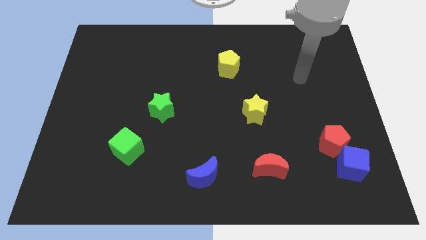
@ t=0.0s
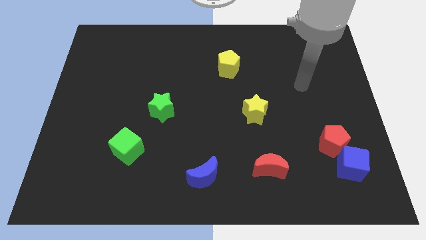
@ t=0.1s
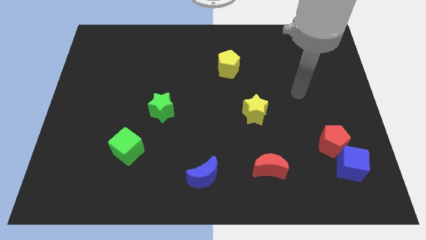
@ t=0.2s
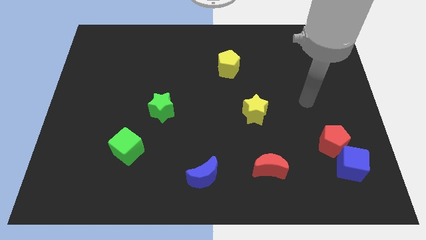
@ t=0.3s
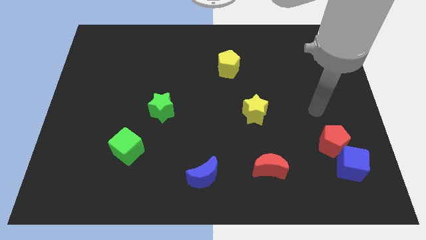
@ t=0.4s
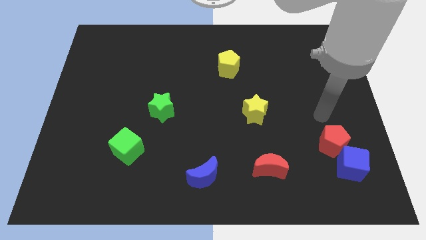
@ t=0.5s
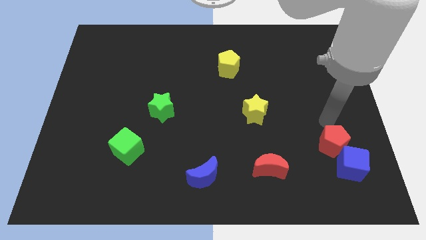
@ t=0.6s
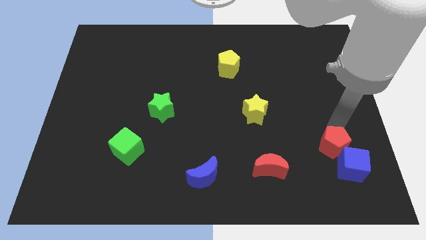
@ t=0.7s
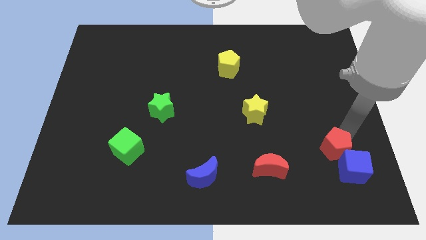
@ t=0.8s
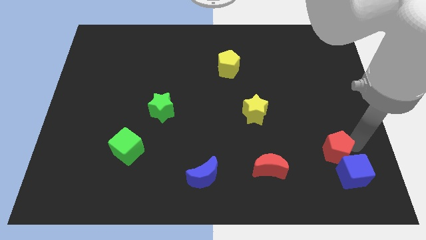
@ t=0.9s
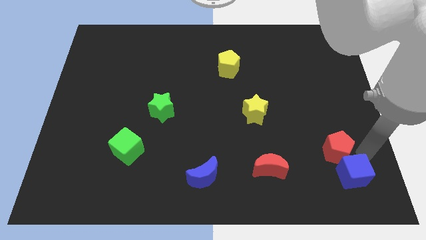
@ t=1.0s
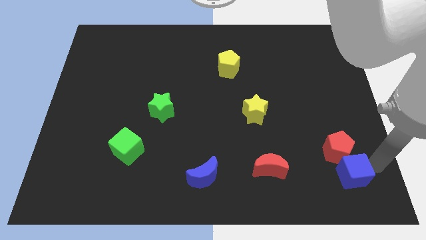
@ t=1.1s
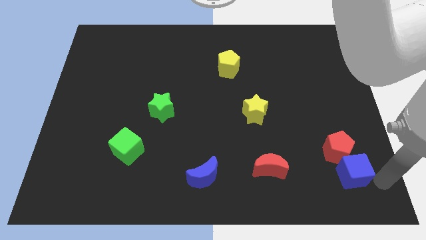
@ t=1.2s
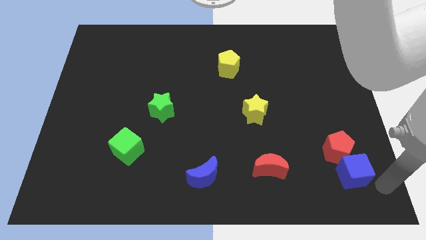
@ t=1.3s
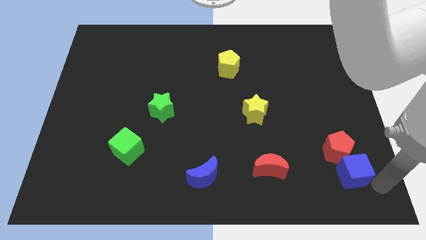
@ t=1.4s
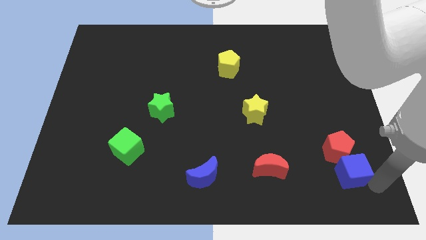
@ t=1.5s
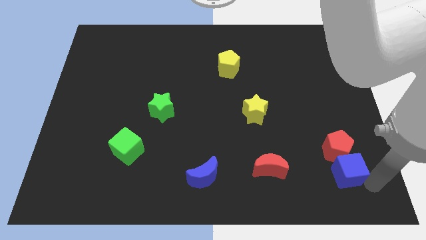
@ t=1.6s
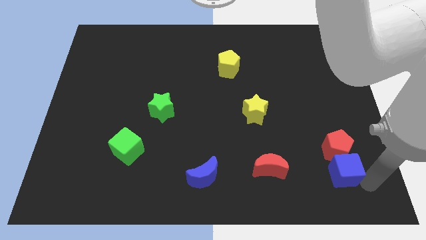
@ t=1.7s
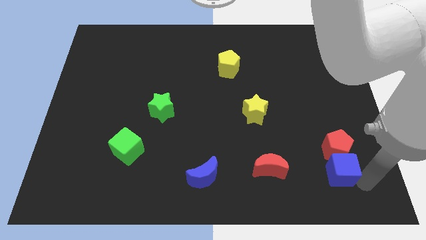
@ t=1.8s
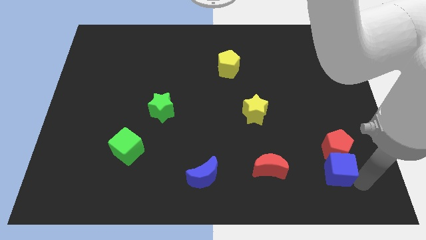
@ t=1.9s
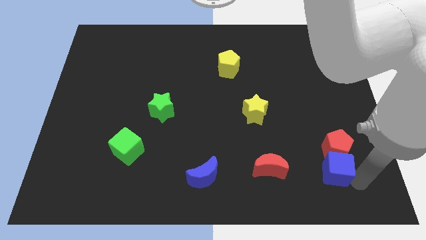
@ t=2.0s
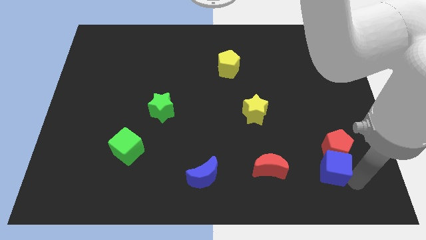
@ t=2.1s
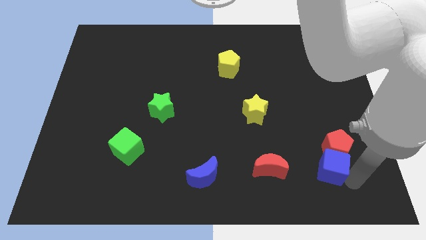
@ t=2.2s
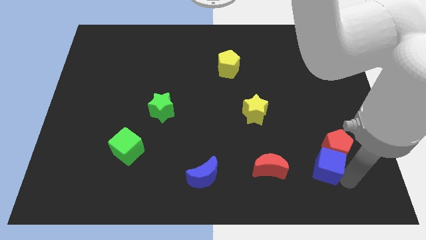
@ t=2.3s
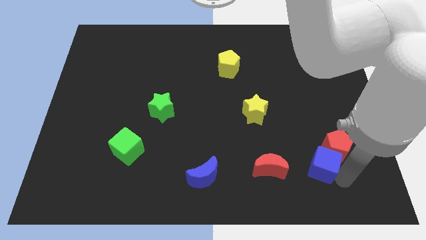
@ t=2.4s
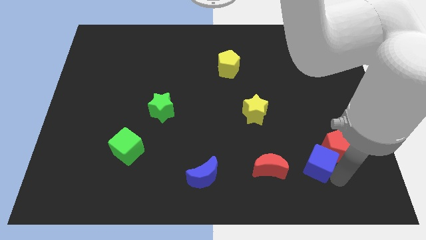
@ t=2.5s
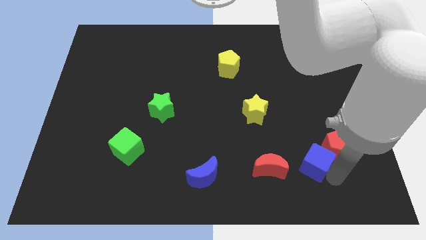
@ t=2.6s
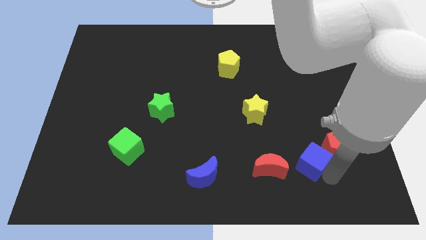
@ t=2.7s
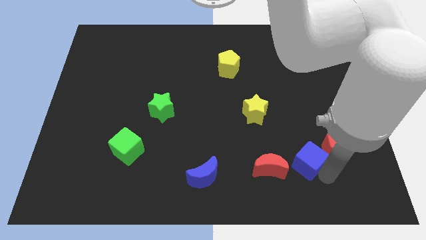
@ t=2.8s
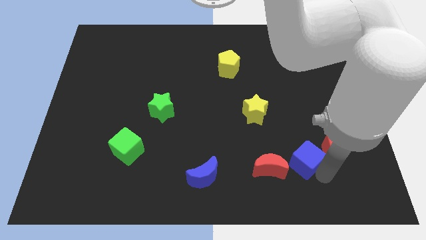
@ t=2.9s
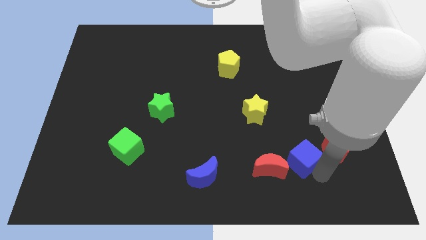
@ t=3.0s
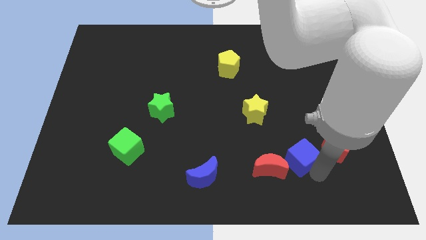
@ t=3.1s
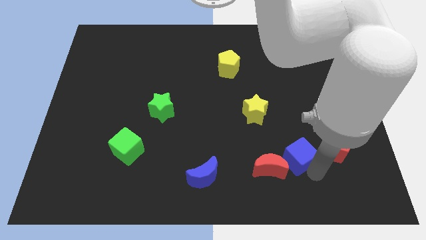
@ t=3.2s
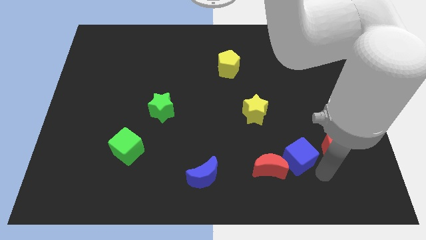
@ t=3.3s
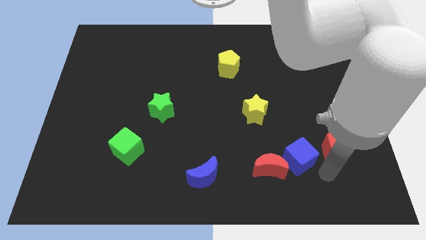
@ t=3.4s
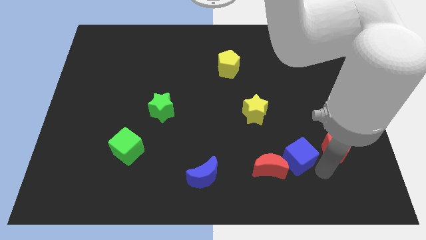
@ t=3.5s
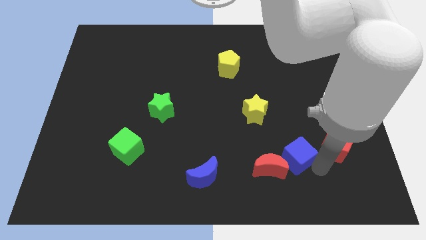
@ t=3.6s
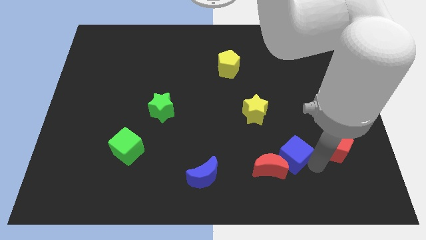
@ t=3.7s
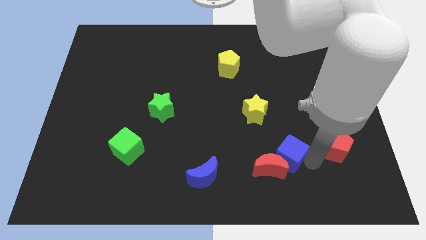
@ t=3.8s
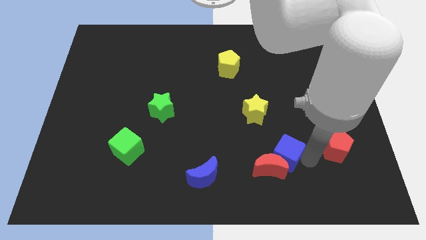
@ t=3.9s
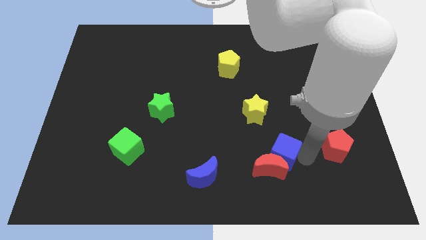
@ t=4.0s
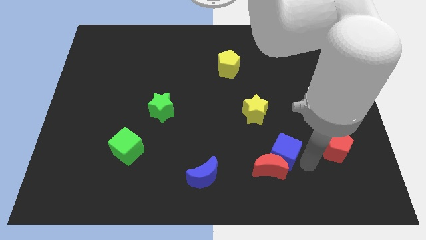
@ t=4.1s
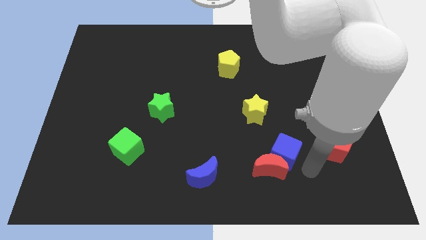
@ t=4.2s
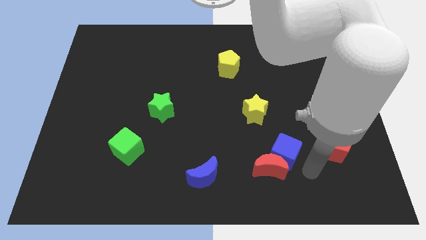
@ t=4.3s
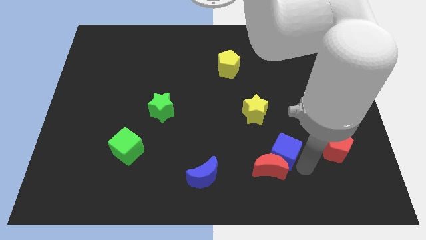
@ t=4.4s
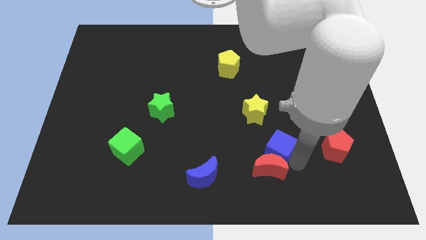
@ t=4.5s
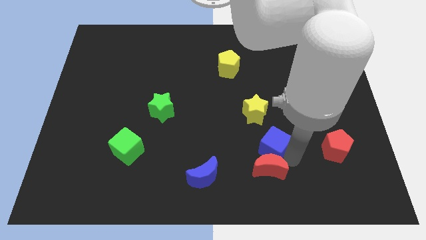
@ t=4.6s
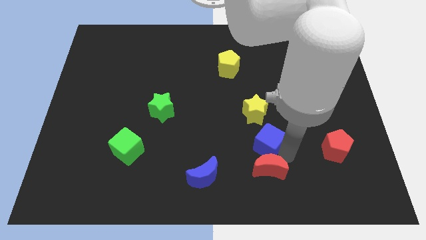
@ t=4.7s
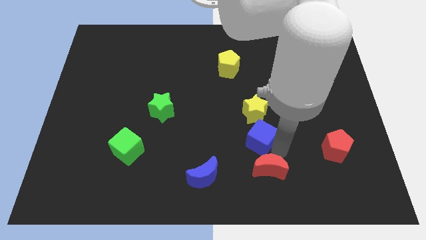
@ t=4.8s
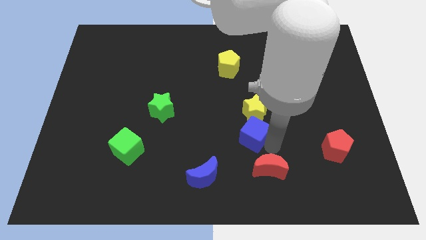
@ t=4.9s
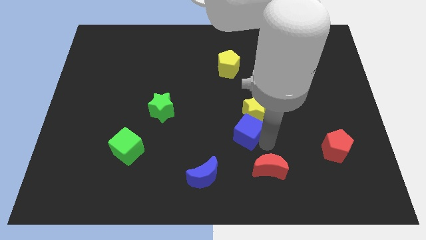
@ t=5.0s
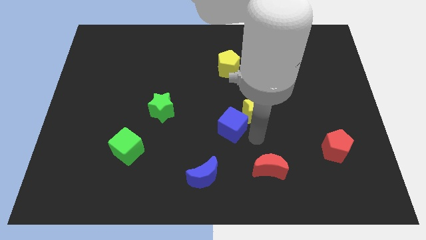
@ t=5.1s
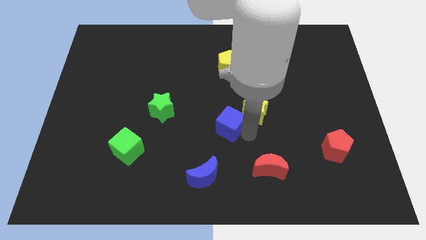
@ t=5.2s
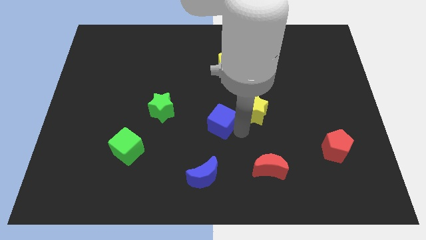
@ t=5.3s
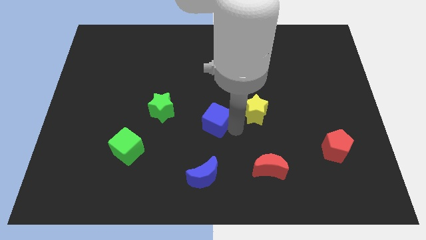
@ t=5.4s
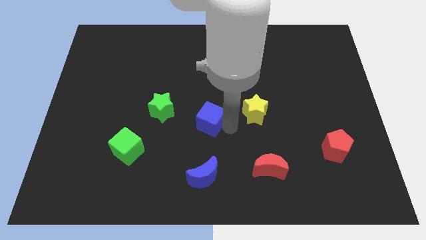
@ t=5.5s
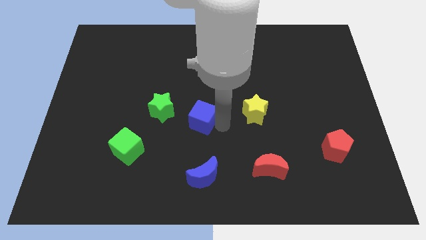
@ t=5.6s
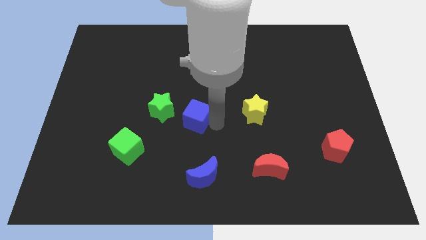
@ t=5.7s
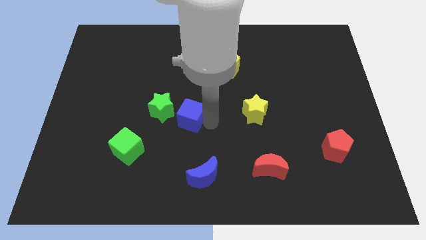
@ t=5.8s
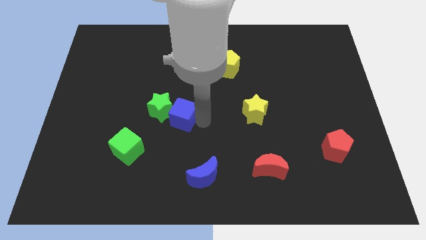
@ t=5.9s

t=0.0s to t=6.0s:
put the blue cube next to the green star

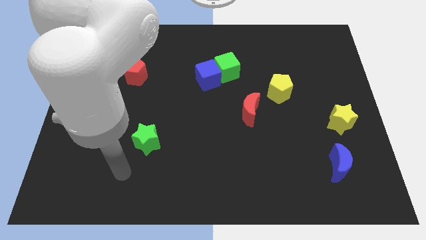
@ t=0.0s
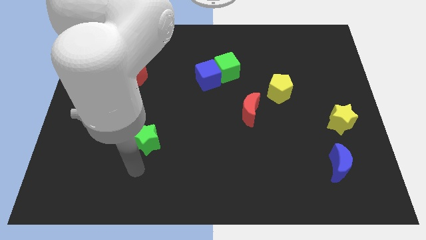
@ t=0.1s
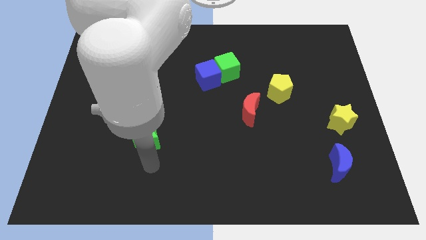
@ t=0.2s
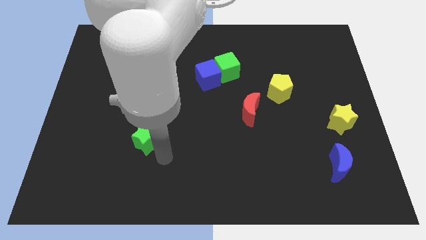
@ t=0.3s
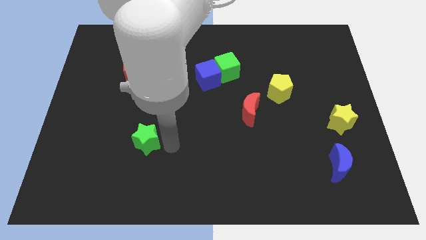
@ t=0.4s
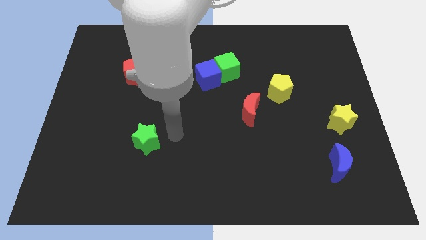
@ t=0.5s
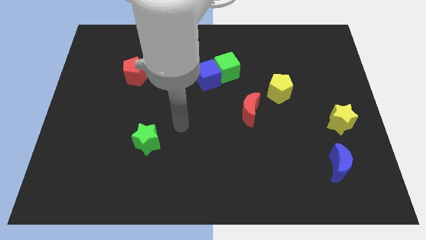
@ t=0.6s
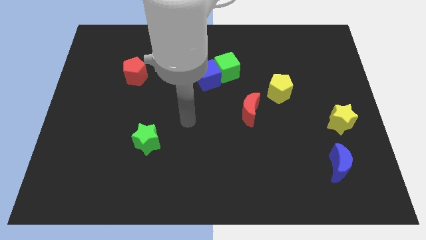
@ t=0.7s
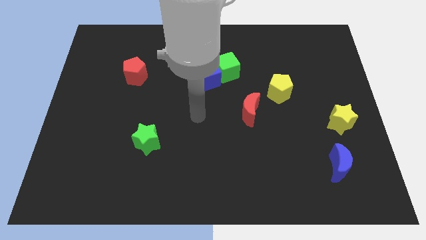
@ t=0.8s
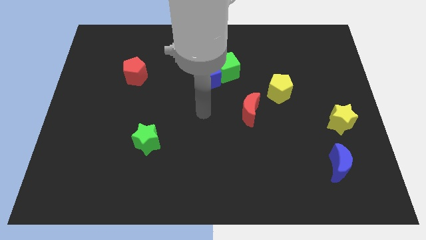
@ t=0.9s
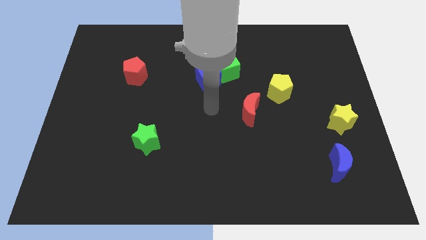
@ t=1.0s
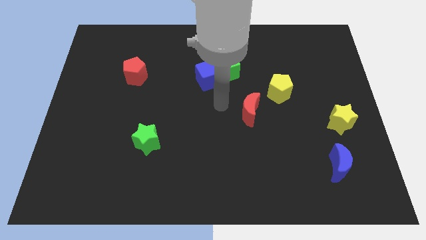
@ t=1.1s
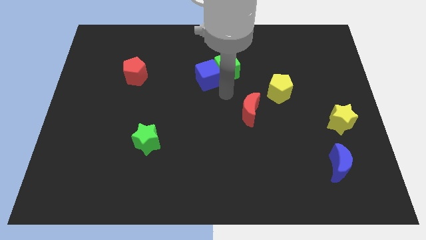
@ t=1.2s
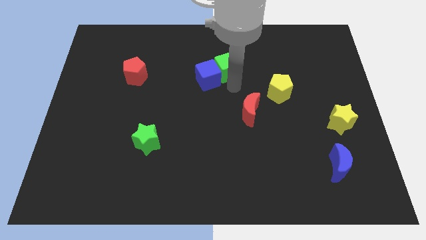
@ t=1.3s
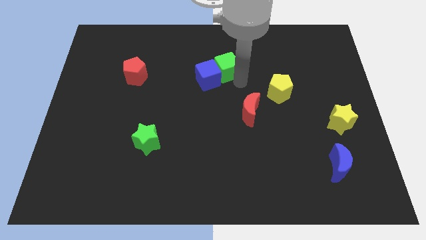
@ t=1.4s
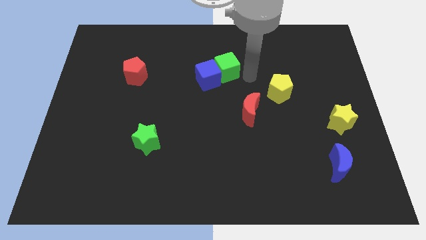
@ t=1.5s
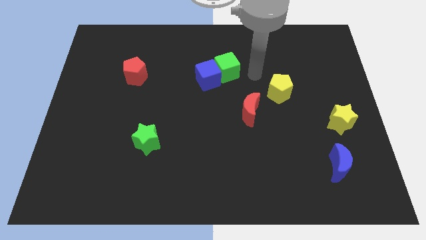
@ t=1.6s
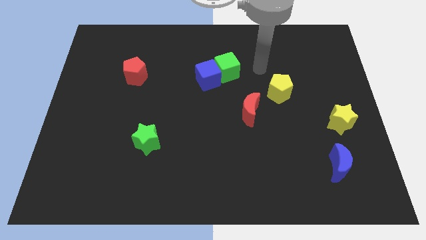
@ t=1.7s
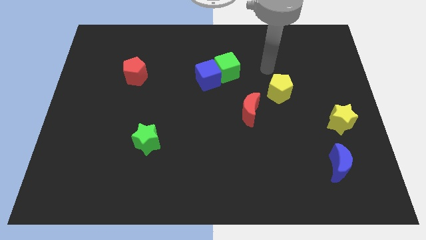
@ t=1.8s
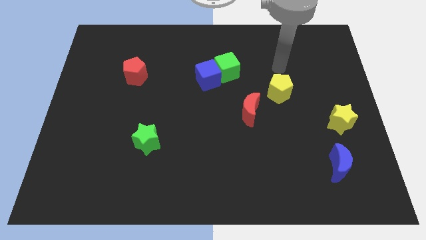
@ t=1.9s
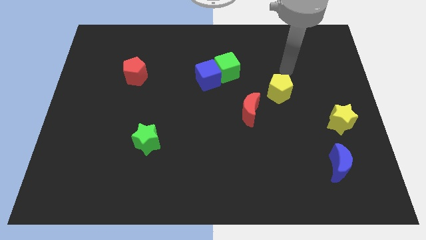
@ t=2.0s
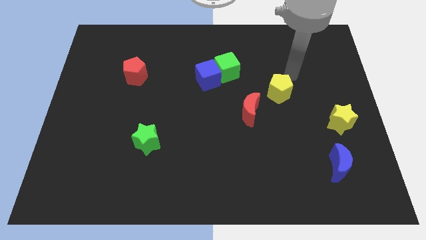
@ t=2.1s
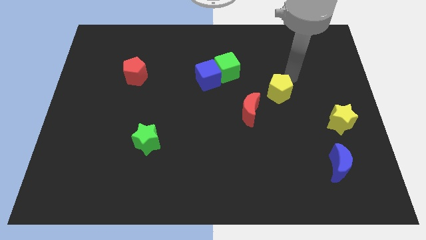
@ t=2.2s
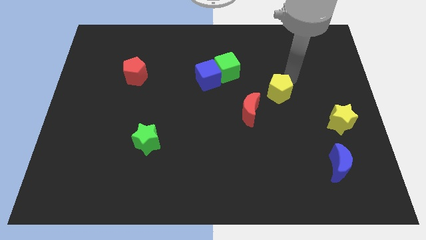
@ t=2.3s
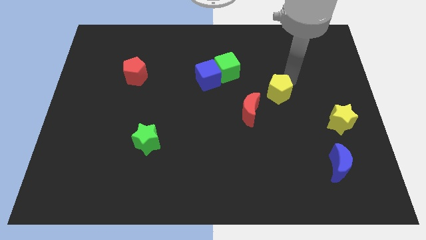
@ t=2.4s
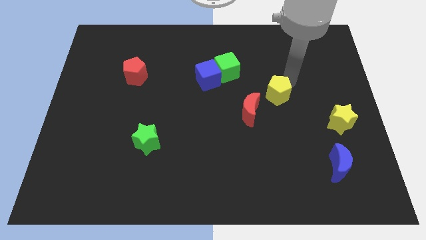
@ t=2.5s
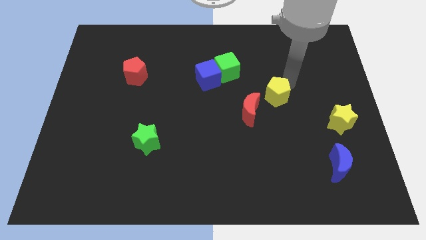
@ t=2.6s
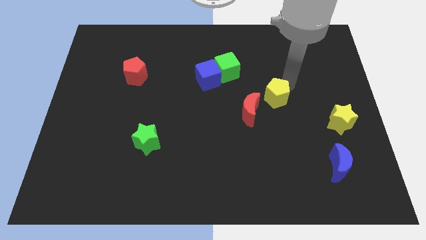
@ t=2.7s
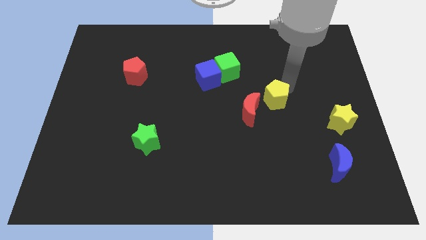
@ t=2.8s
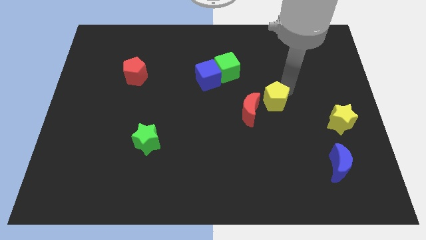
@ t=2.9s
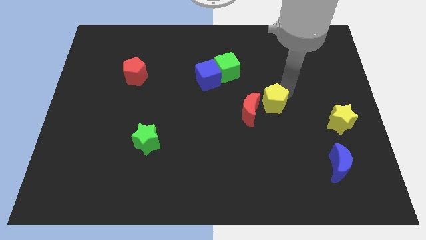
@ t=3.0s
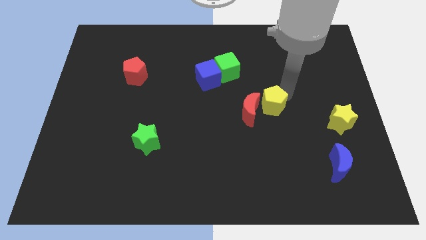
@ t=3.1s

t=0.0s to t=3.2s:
move the yellow pentagon next to the red moon
